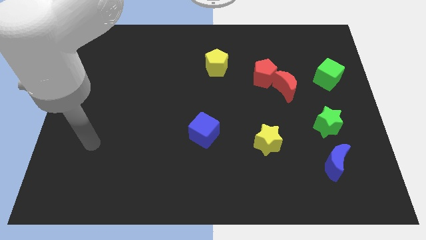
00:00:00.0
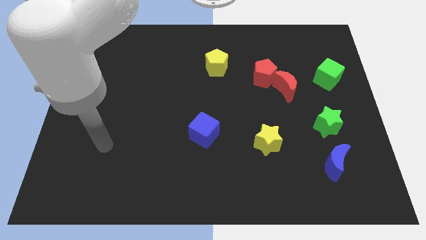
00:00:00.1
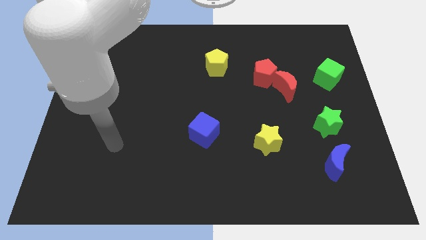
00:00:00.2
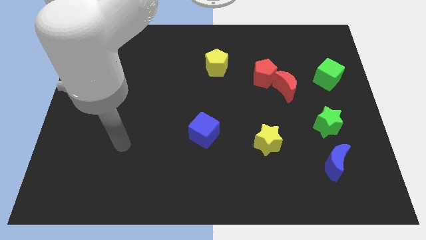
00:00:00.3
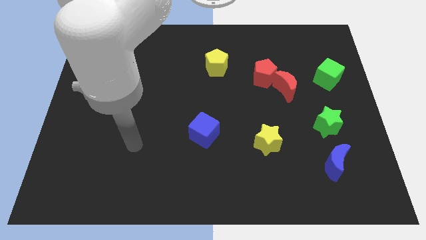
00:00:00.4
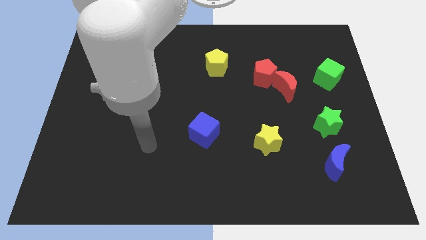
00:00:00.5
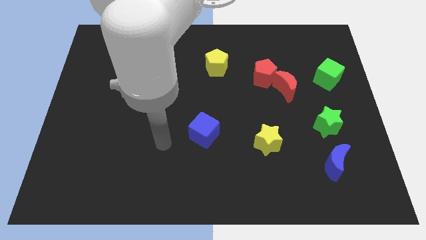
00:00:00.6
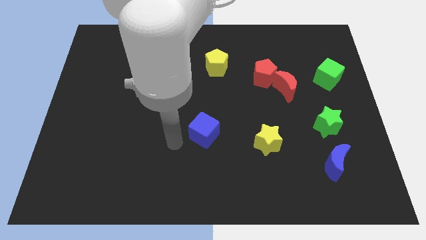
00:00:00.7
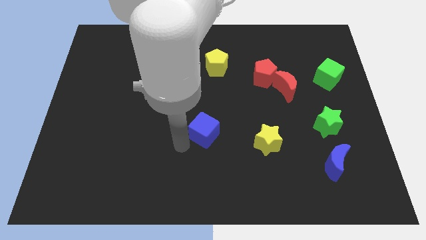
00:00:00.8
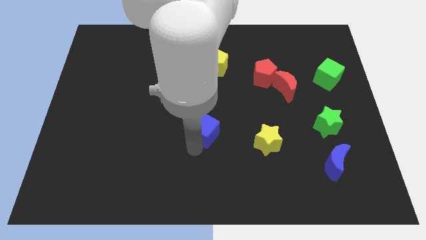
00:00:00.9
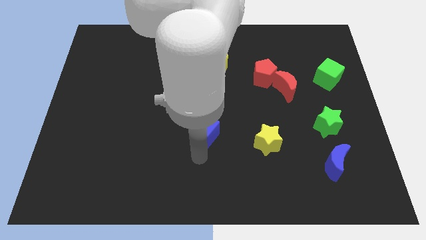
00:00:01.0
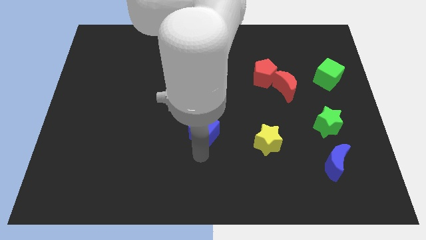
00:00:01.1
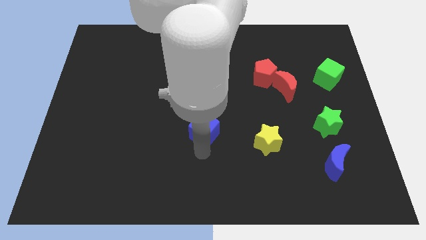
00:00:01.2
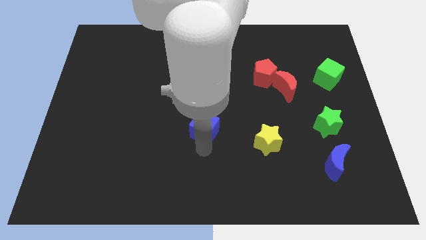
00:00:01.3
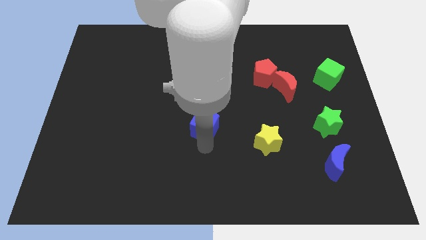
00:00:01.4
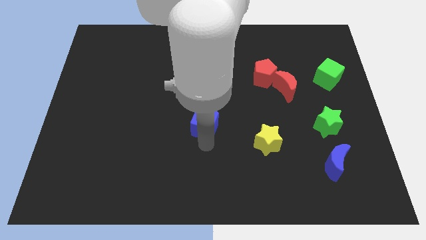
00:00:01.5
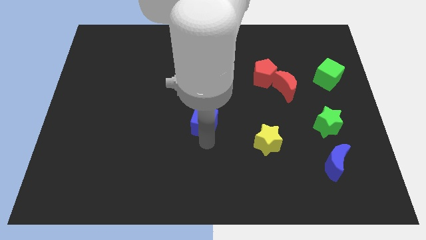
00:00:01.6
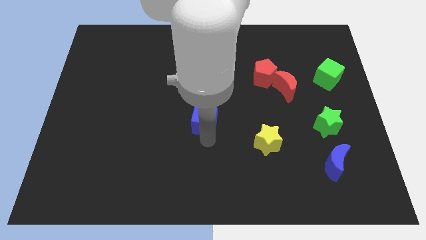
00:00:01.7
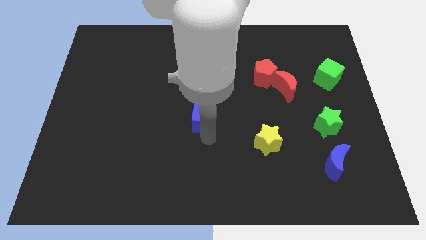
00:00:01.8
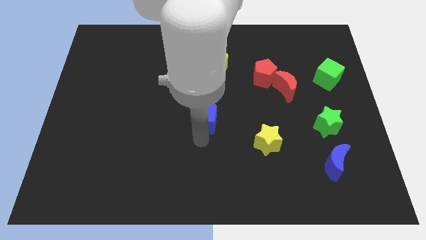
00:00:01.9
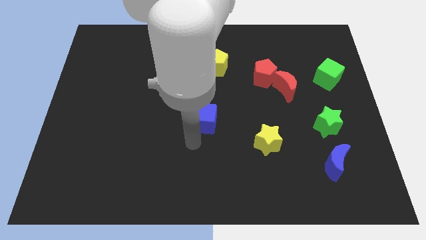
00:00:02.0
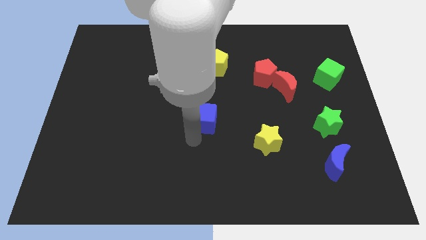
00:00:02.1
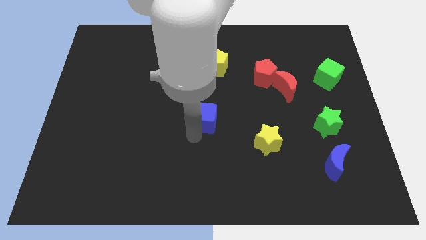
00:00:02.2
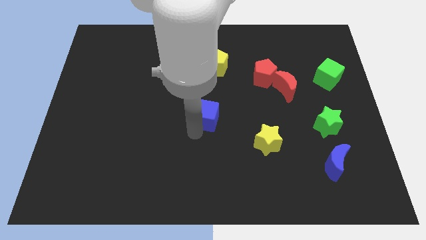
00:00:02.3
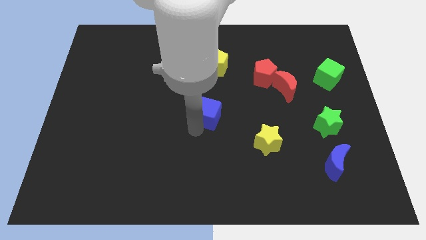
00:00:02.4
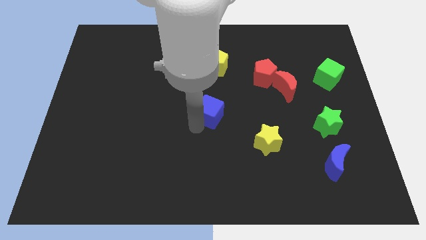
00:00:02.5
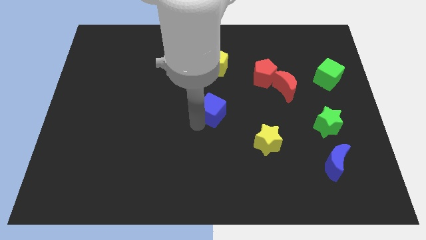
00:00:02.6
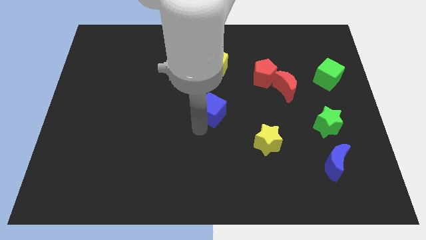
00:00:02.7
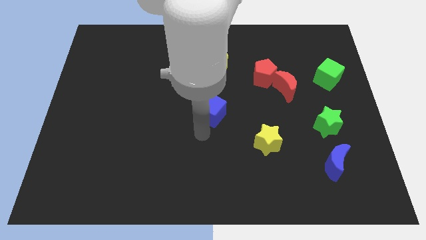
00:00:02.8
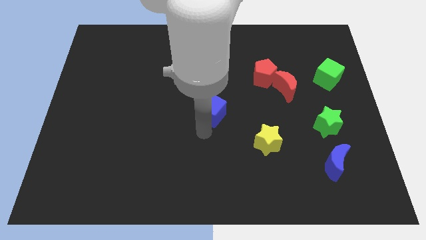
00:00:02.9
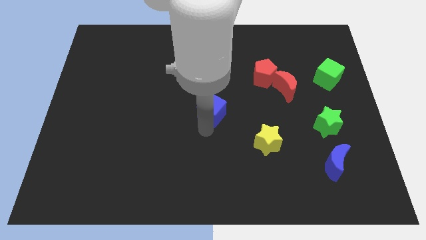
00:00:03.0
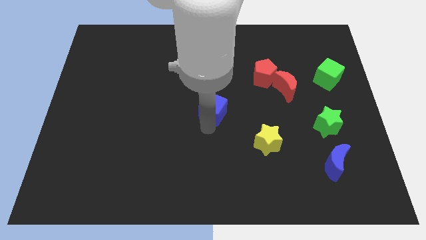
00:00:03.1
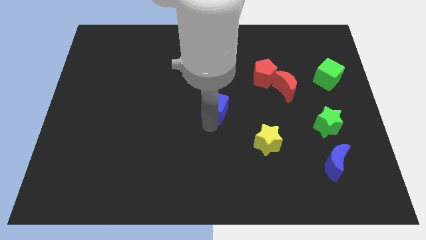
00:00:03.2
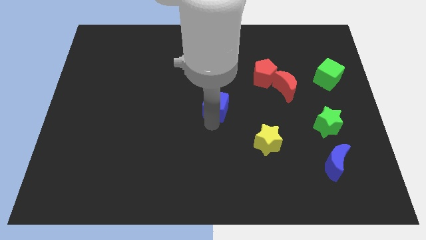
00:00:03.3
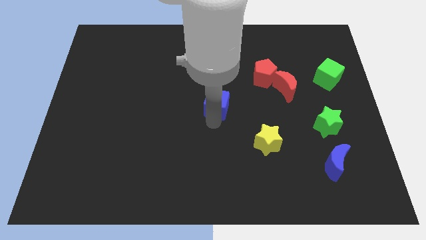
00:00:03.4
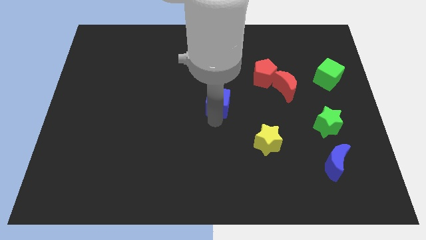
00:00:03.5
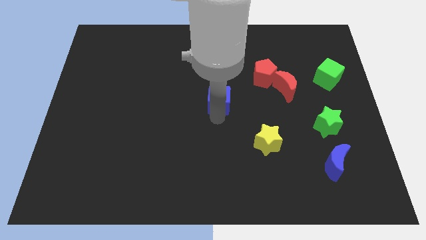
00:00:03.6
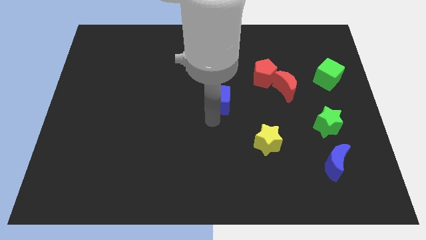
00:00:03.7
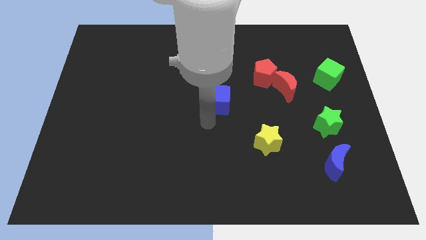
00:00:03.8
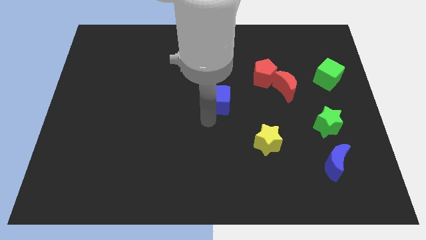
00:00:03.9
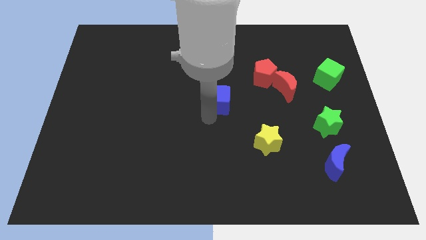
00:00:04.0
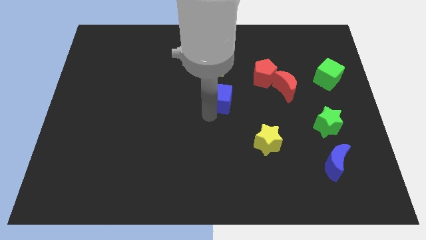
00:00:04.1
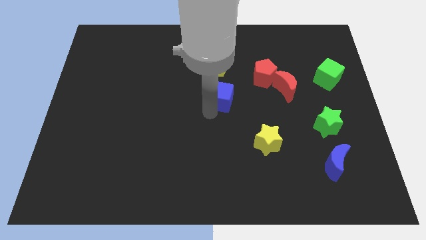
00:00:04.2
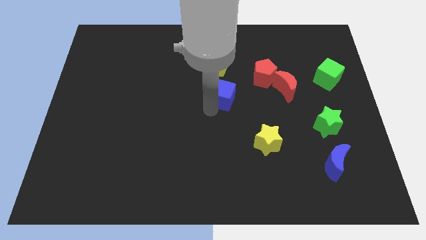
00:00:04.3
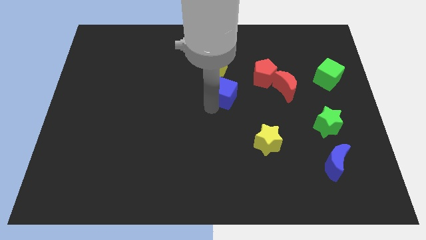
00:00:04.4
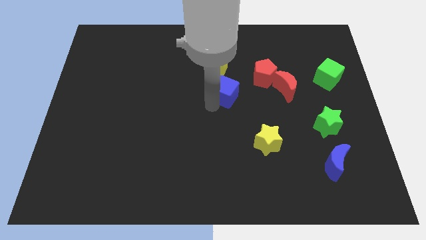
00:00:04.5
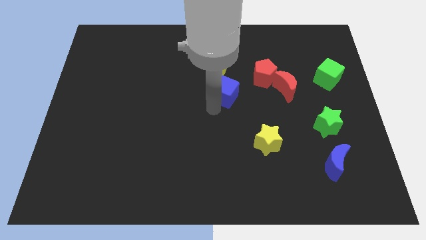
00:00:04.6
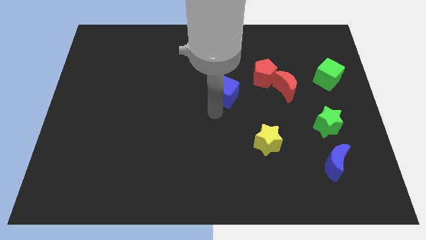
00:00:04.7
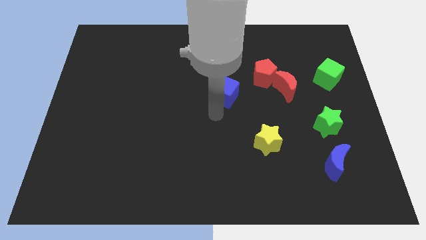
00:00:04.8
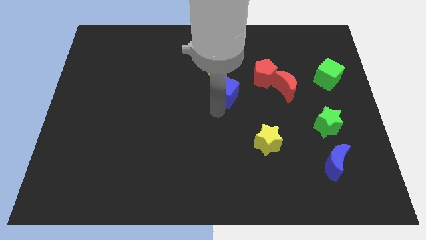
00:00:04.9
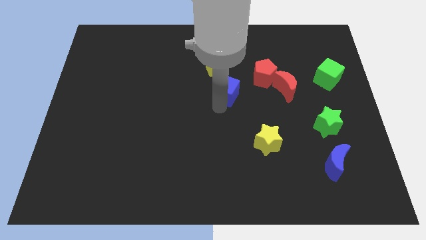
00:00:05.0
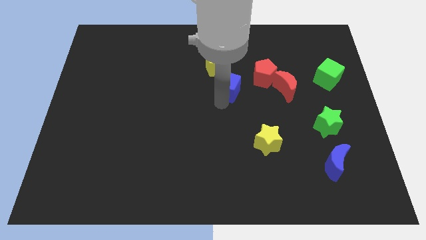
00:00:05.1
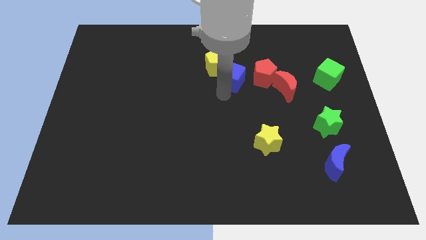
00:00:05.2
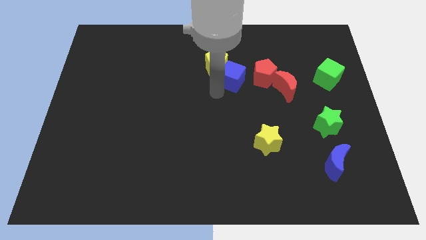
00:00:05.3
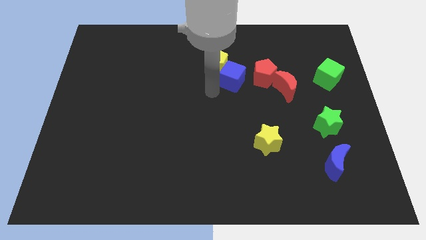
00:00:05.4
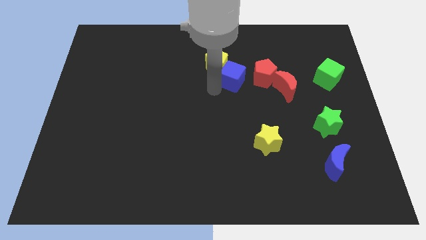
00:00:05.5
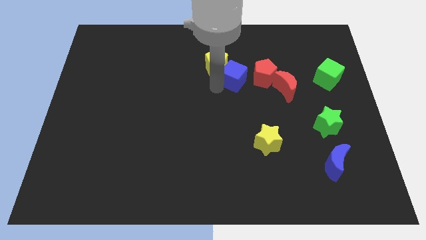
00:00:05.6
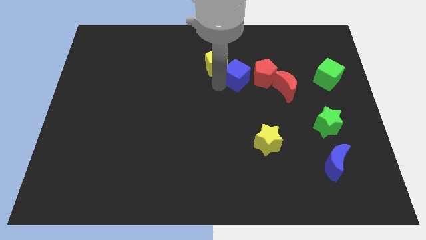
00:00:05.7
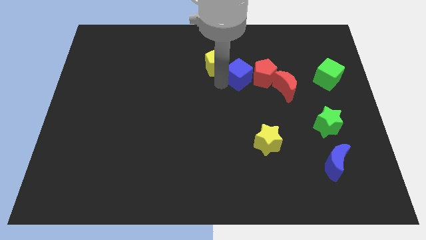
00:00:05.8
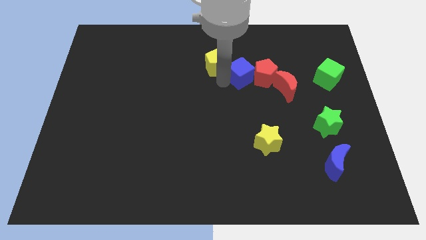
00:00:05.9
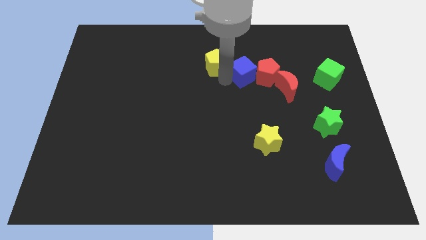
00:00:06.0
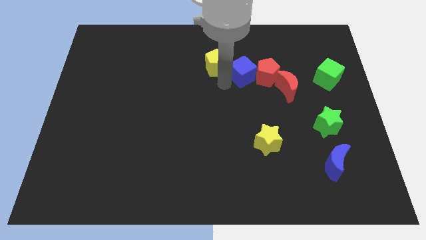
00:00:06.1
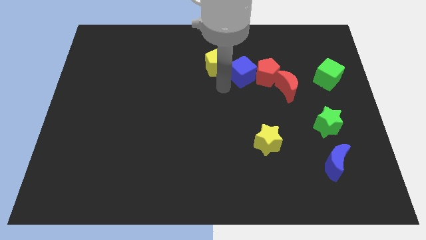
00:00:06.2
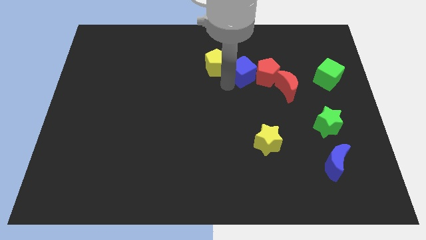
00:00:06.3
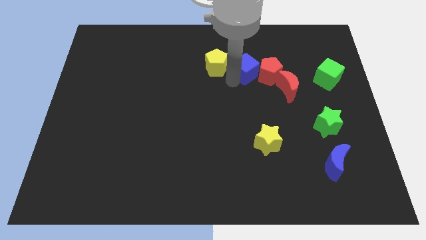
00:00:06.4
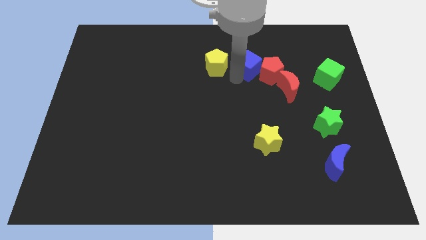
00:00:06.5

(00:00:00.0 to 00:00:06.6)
slide the blue cube up and right diagonally

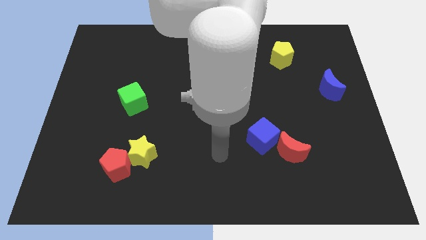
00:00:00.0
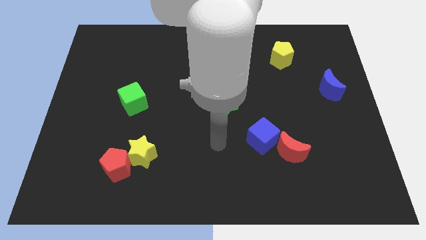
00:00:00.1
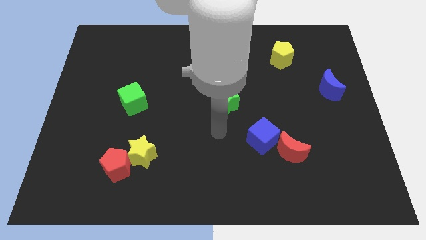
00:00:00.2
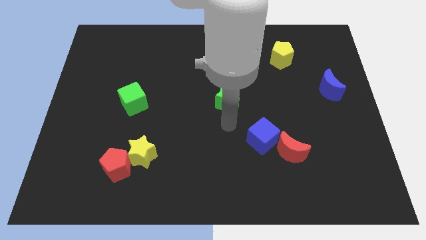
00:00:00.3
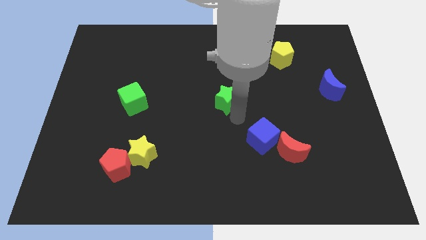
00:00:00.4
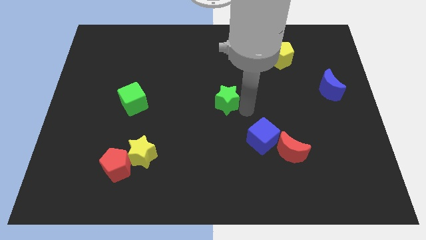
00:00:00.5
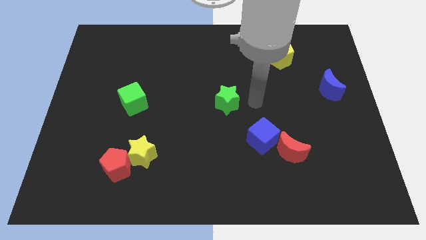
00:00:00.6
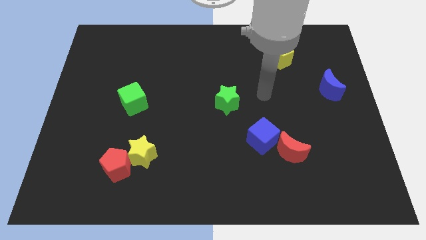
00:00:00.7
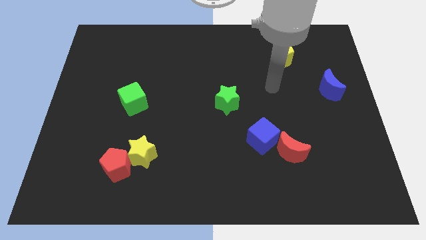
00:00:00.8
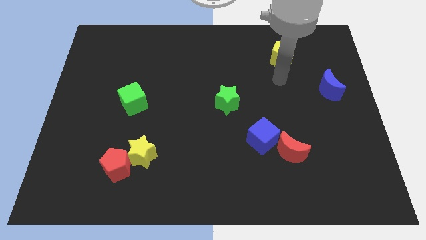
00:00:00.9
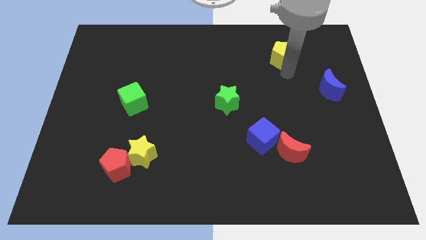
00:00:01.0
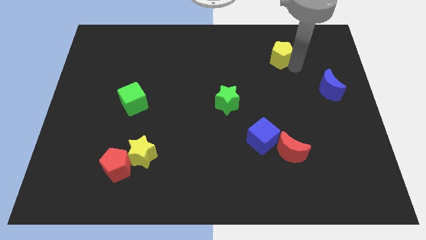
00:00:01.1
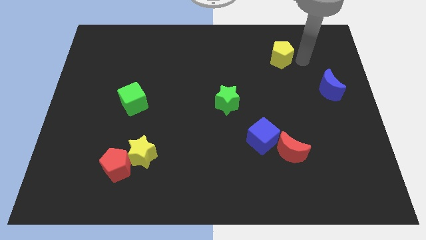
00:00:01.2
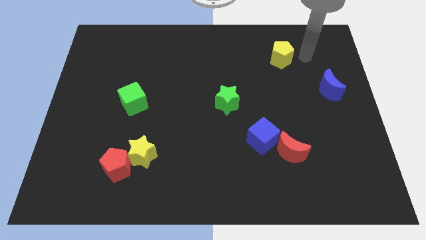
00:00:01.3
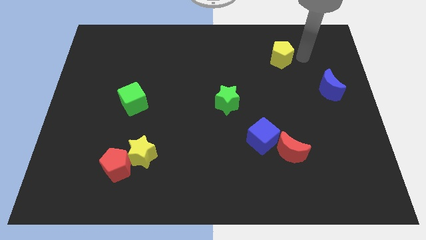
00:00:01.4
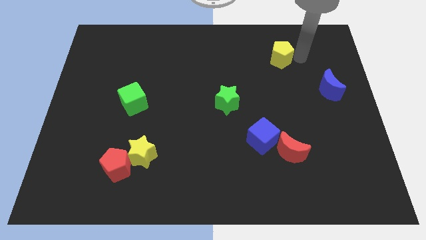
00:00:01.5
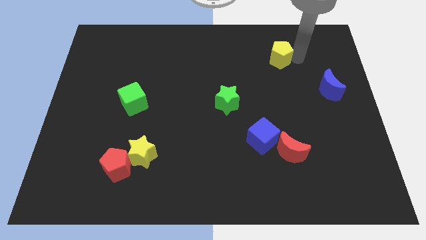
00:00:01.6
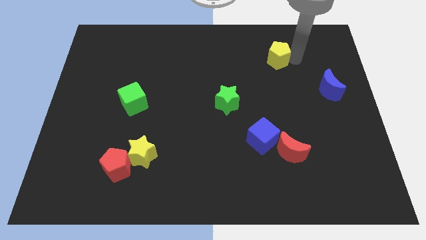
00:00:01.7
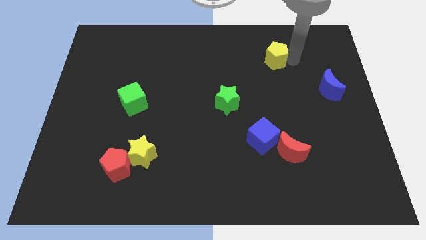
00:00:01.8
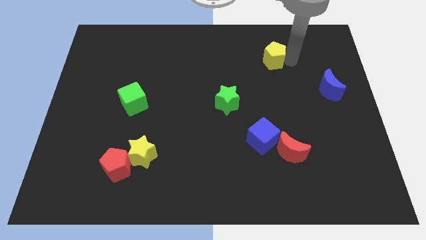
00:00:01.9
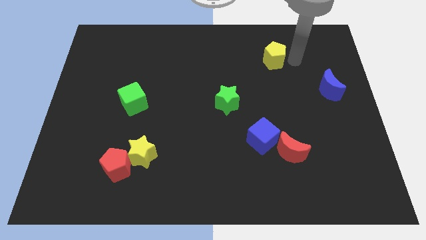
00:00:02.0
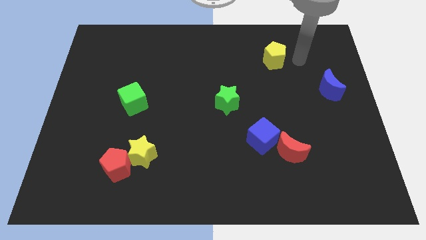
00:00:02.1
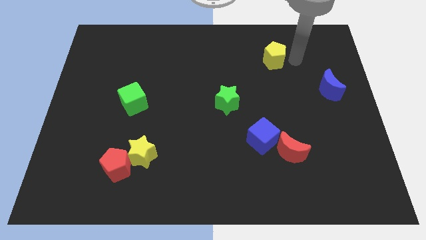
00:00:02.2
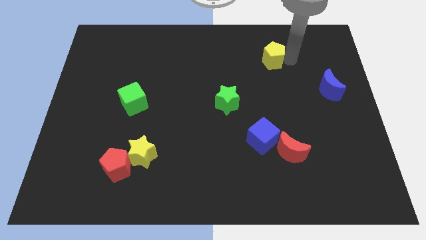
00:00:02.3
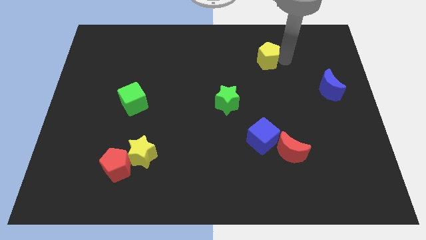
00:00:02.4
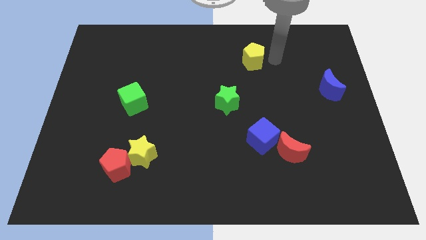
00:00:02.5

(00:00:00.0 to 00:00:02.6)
push the yellow pentagon left a bit
